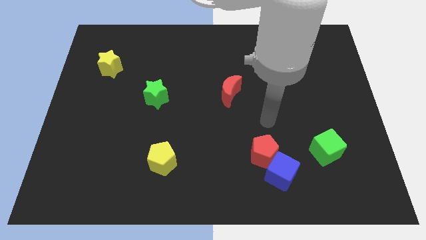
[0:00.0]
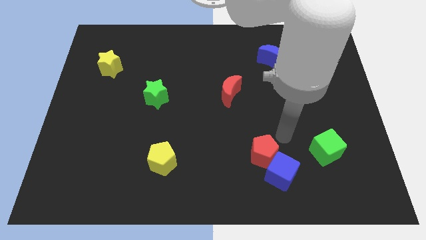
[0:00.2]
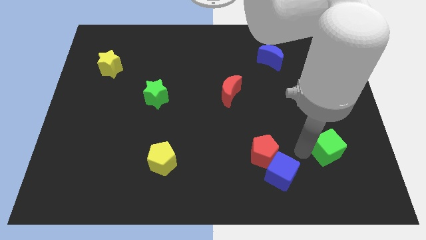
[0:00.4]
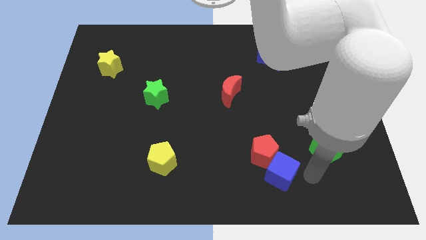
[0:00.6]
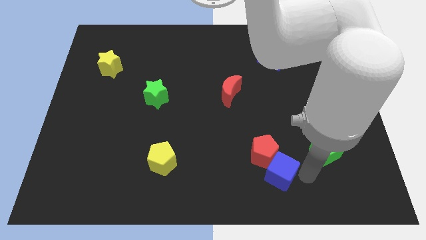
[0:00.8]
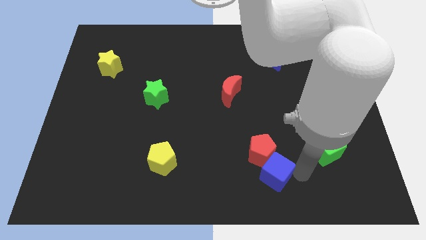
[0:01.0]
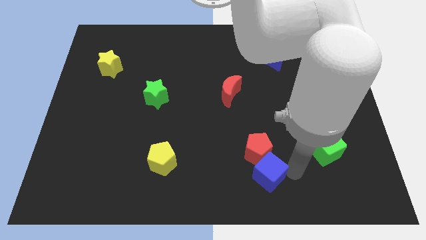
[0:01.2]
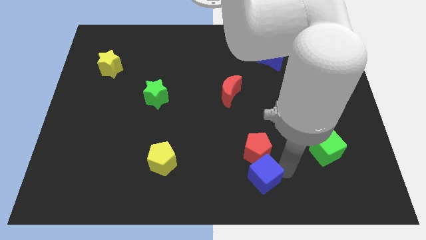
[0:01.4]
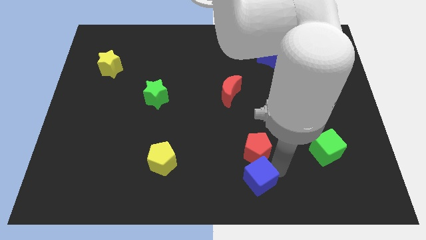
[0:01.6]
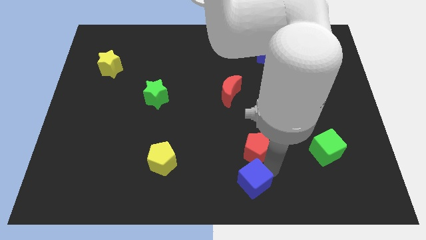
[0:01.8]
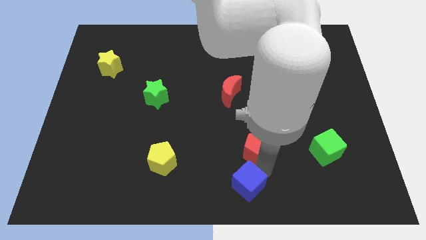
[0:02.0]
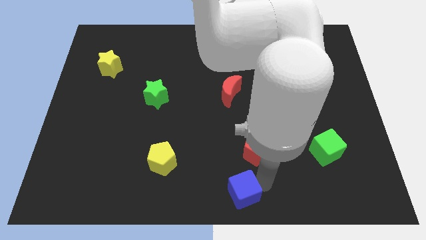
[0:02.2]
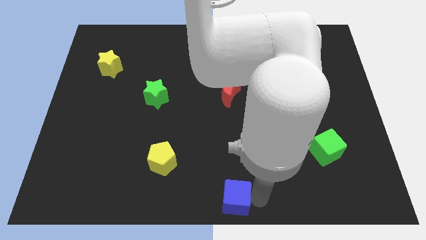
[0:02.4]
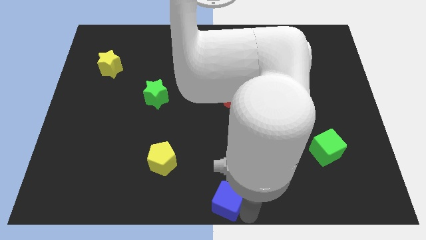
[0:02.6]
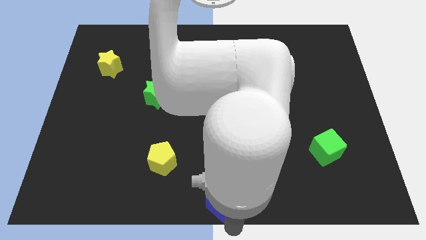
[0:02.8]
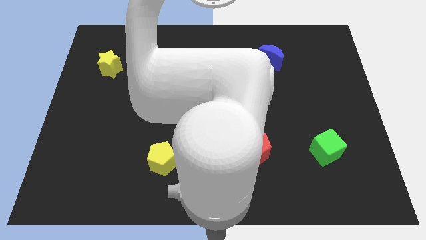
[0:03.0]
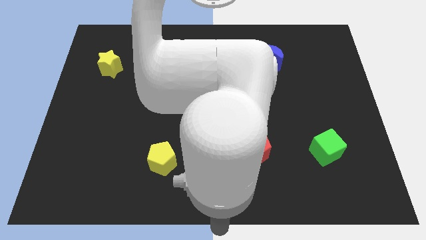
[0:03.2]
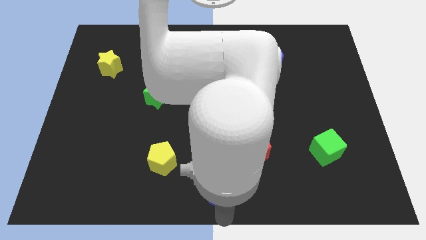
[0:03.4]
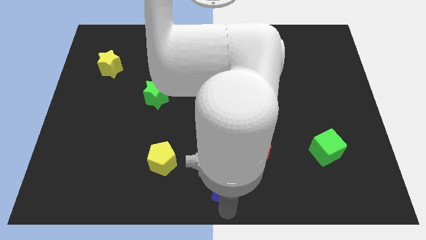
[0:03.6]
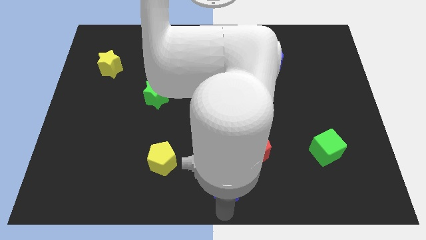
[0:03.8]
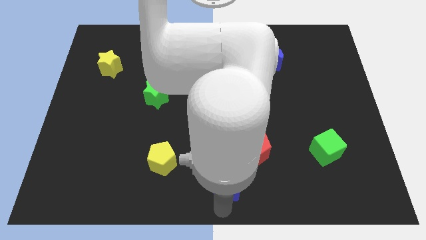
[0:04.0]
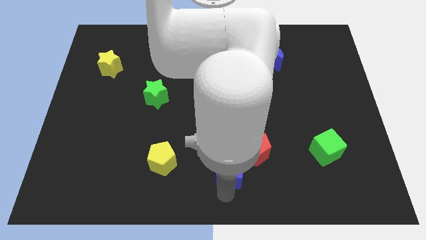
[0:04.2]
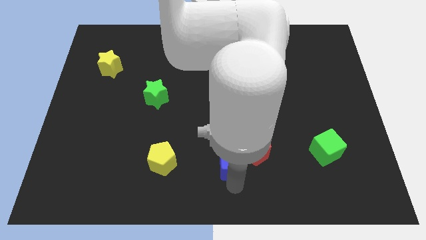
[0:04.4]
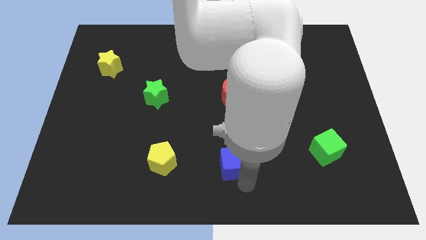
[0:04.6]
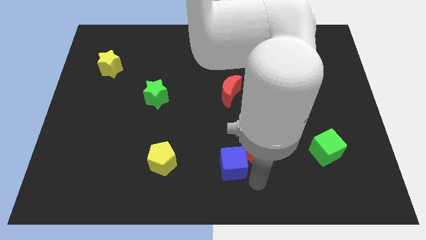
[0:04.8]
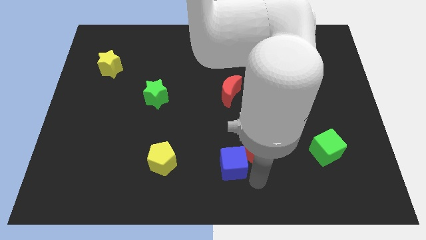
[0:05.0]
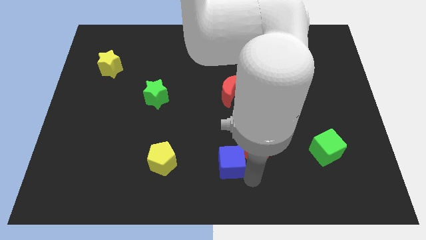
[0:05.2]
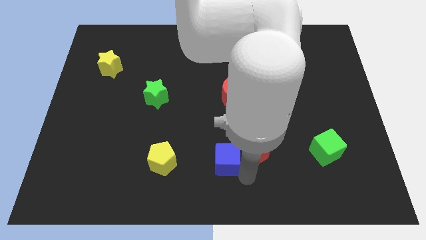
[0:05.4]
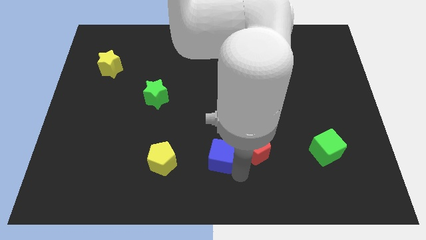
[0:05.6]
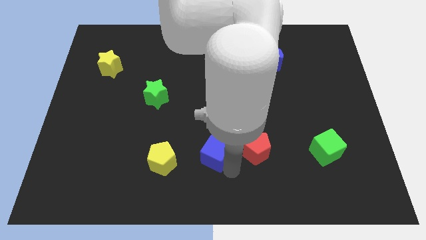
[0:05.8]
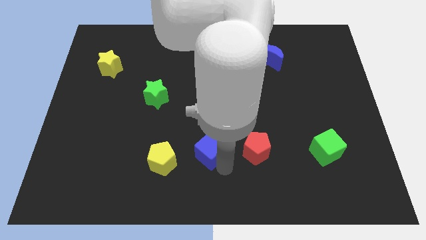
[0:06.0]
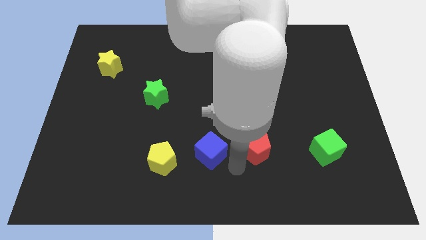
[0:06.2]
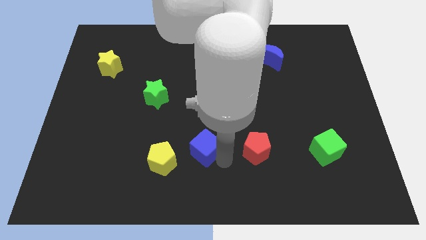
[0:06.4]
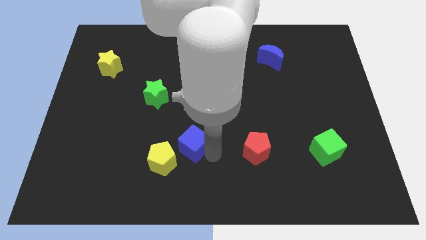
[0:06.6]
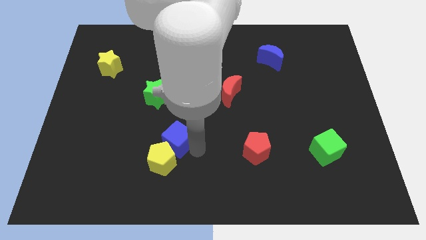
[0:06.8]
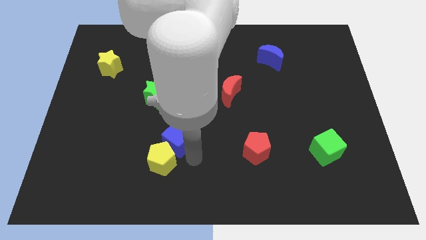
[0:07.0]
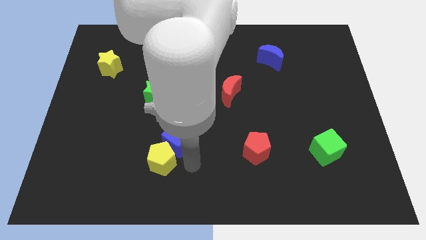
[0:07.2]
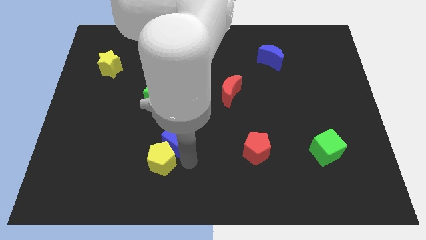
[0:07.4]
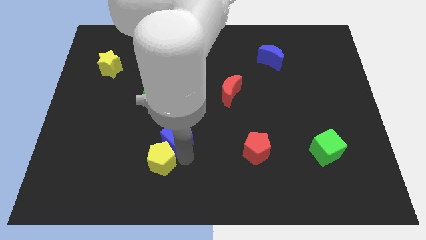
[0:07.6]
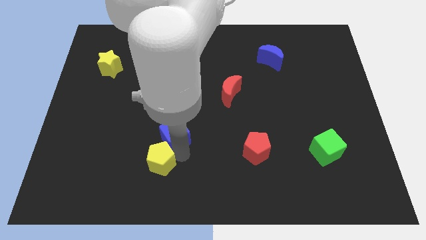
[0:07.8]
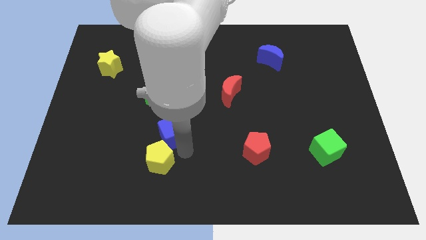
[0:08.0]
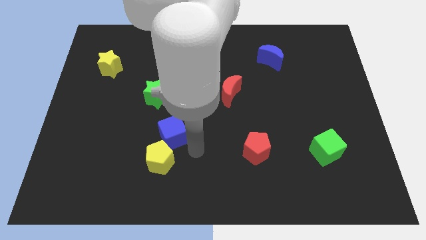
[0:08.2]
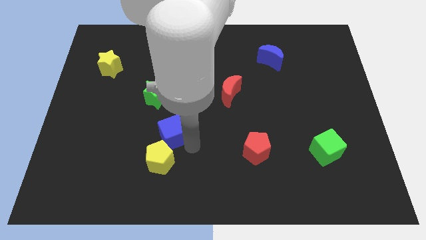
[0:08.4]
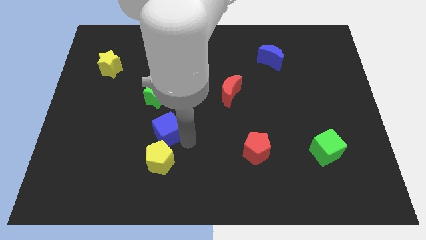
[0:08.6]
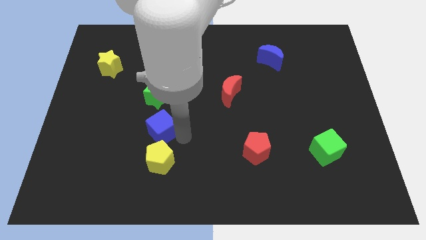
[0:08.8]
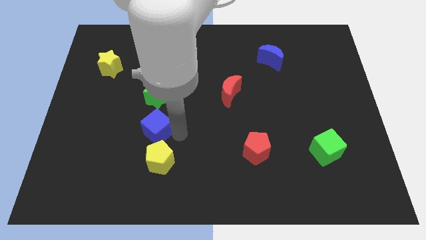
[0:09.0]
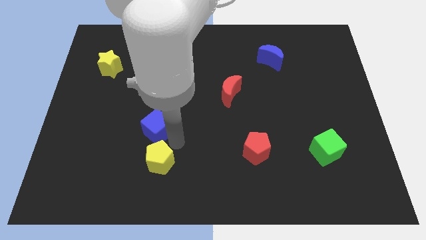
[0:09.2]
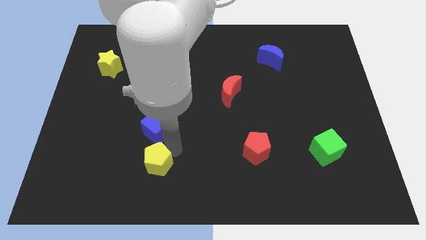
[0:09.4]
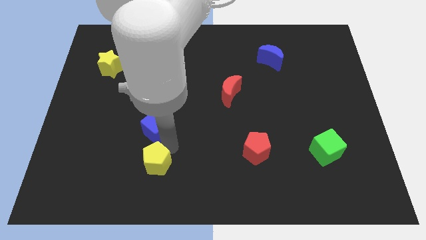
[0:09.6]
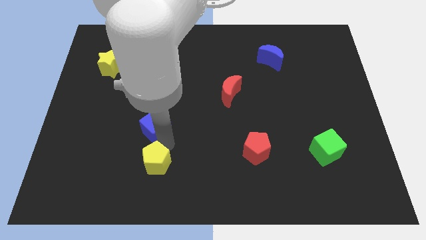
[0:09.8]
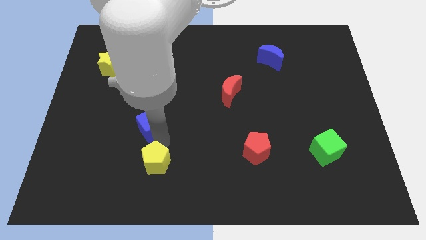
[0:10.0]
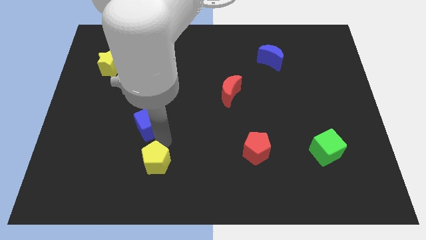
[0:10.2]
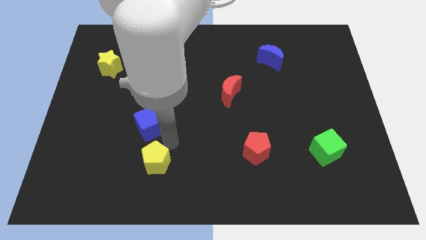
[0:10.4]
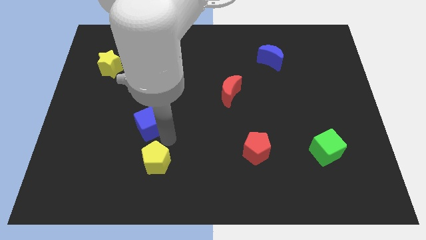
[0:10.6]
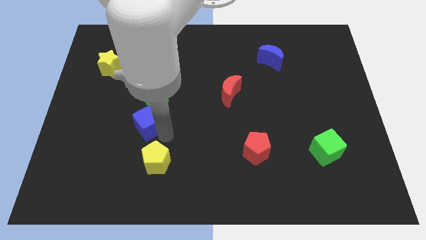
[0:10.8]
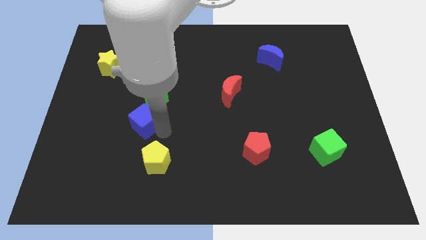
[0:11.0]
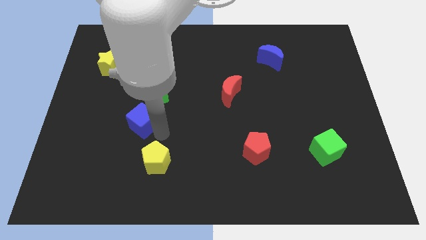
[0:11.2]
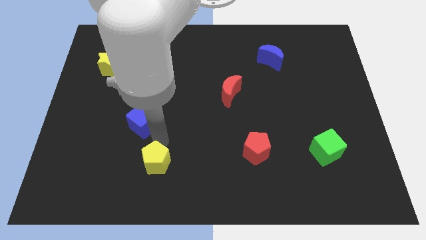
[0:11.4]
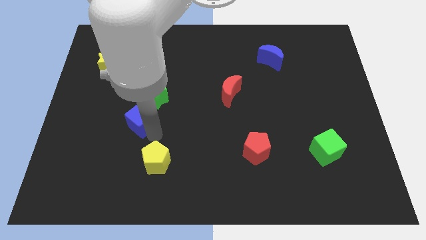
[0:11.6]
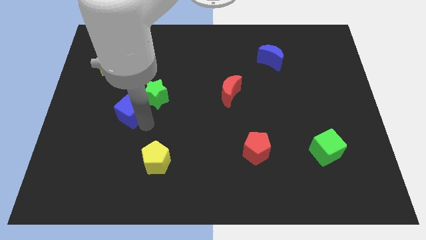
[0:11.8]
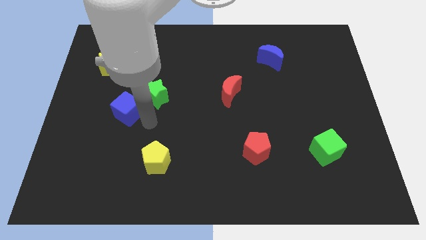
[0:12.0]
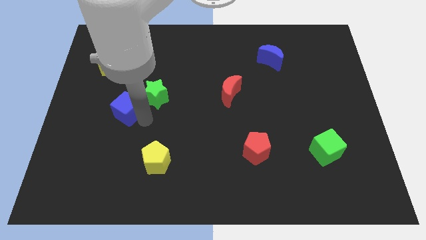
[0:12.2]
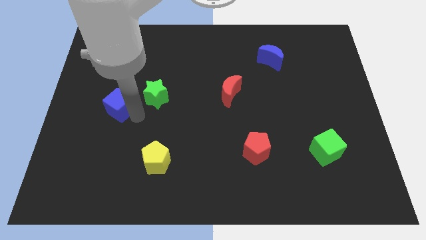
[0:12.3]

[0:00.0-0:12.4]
move the blue cube below the yellow star

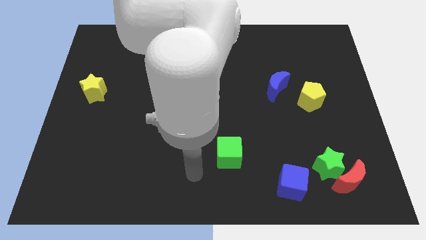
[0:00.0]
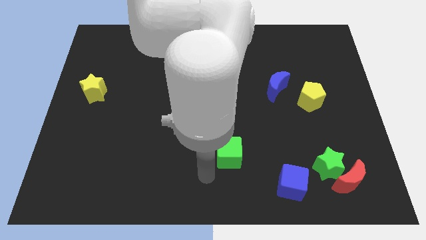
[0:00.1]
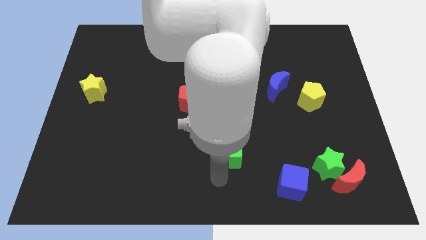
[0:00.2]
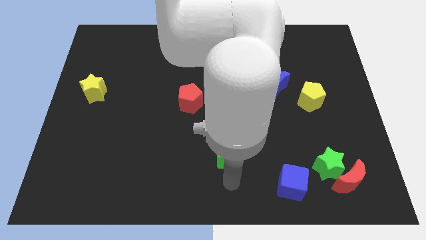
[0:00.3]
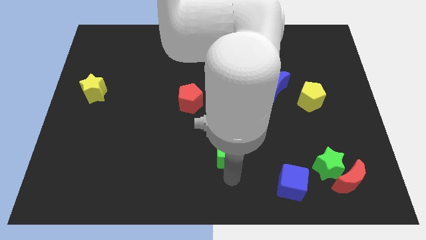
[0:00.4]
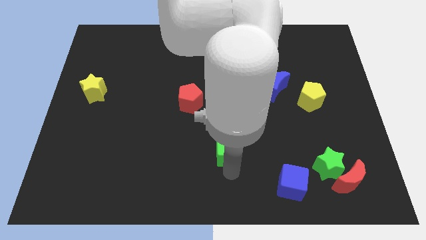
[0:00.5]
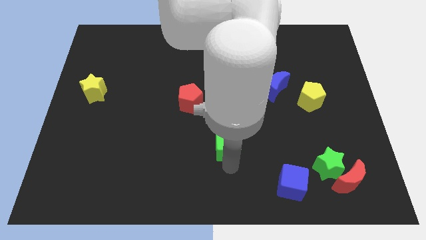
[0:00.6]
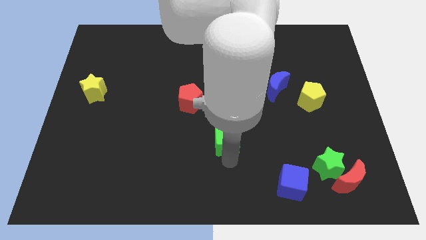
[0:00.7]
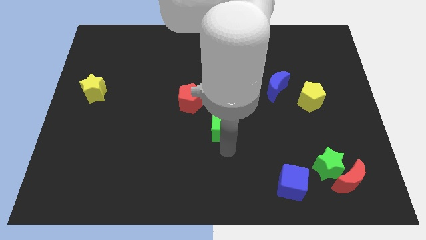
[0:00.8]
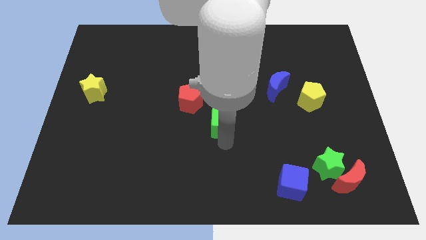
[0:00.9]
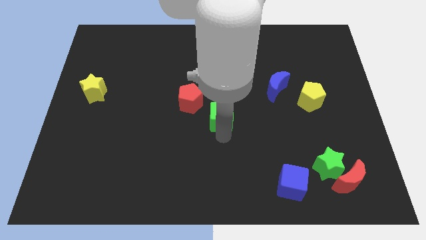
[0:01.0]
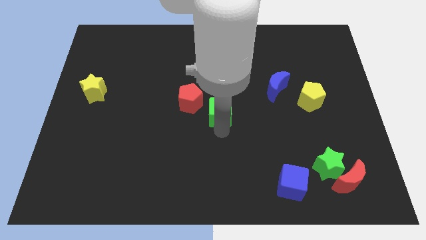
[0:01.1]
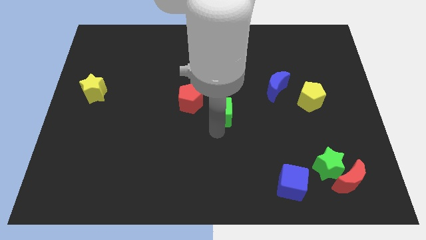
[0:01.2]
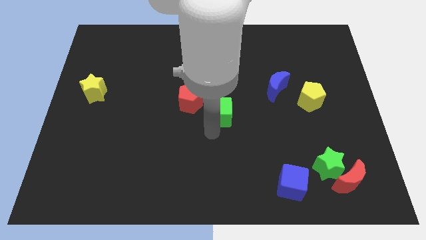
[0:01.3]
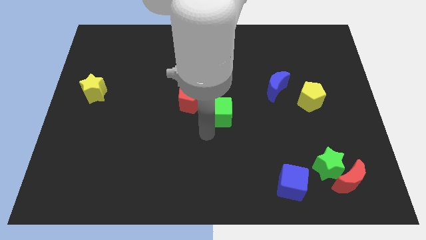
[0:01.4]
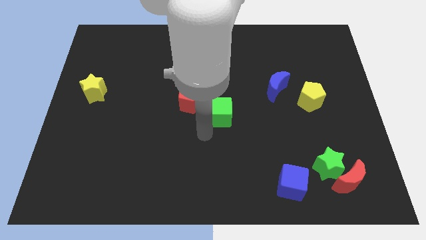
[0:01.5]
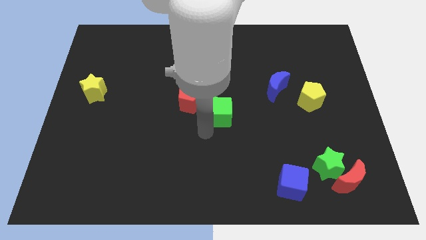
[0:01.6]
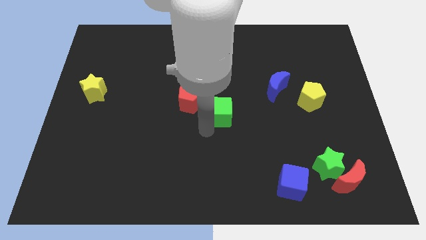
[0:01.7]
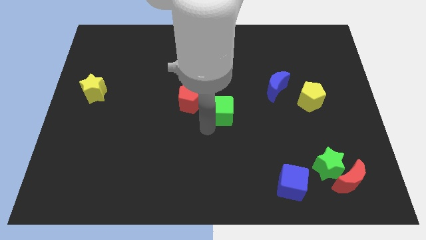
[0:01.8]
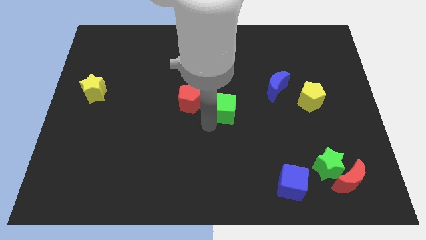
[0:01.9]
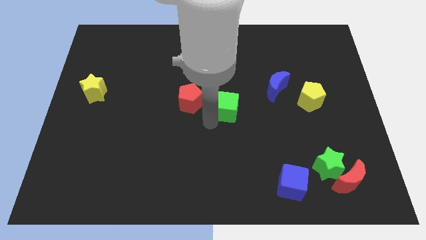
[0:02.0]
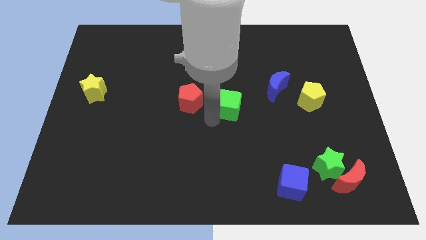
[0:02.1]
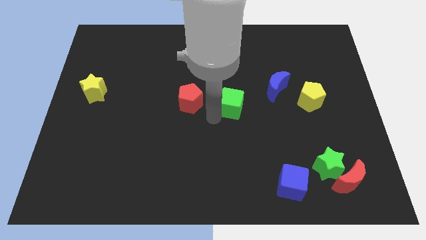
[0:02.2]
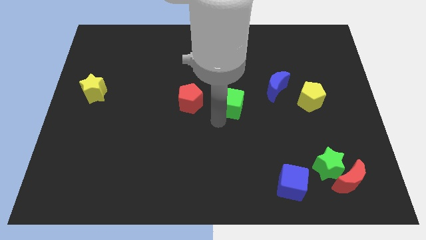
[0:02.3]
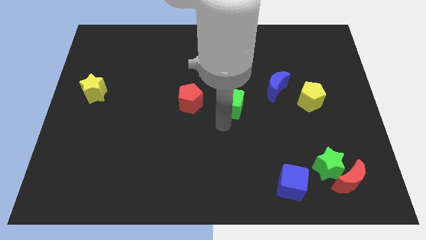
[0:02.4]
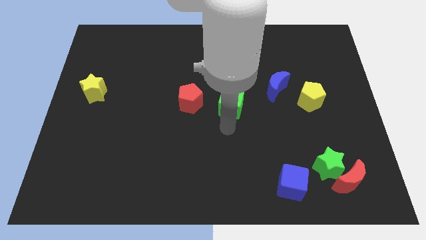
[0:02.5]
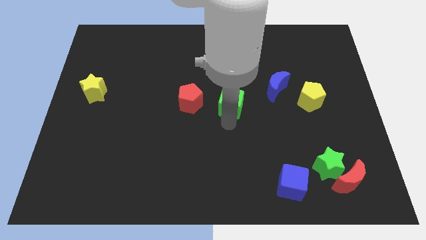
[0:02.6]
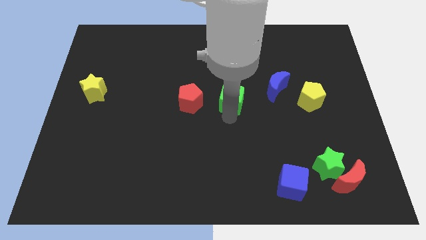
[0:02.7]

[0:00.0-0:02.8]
push the green cube to the left side of the blue moon
